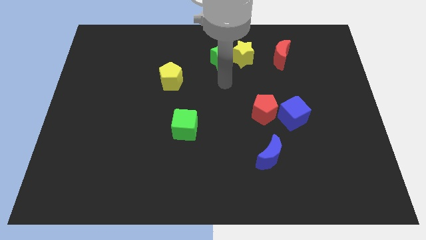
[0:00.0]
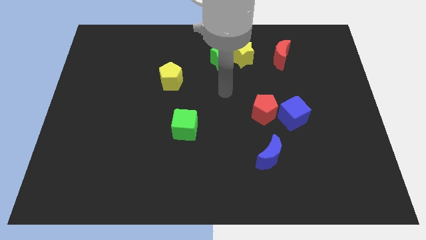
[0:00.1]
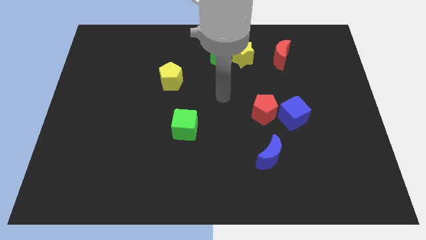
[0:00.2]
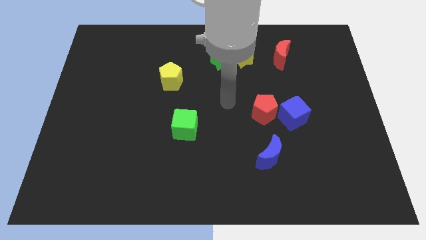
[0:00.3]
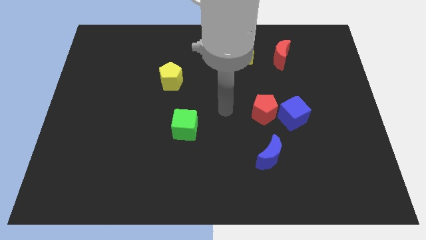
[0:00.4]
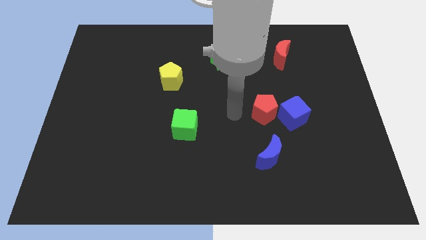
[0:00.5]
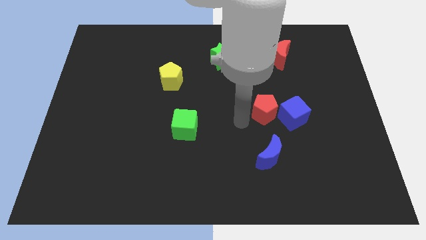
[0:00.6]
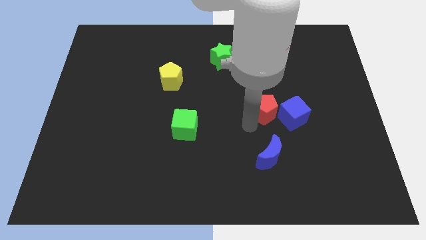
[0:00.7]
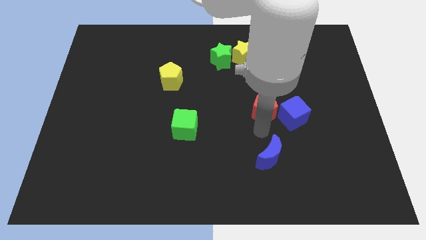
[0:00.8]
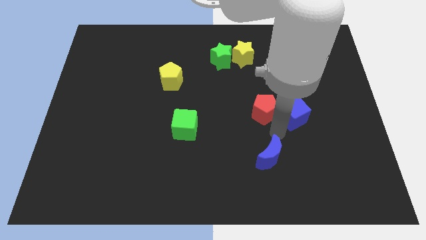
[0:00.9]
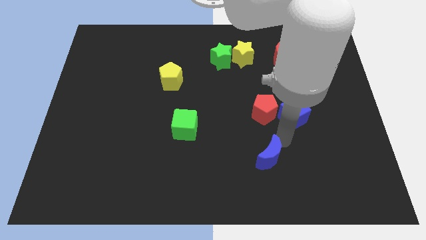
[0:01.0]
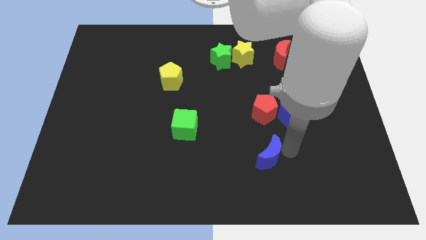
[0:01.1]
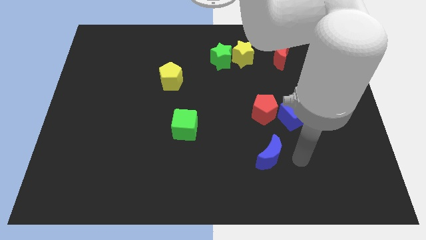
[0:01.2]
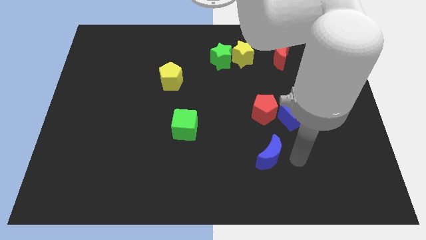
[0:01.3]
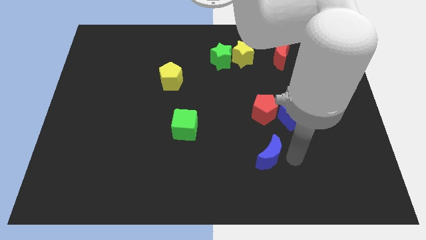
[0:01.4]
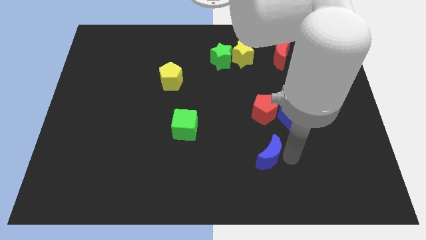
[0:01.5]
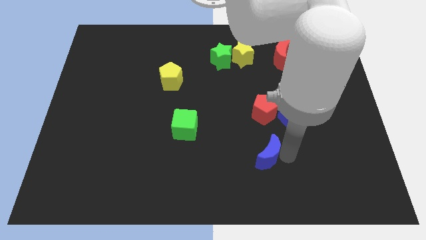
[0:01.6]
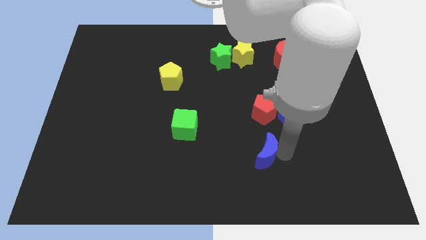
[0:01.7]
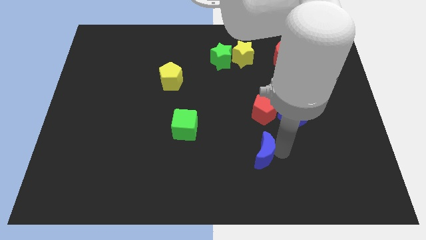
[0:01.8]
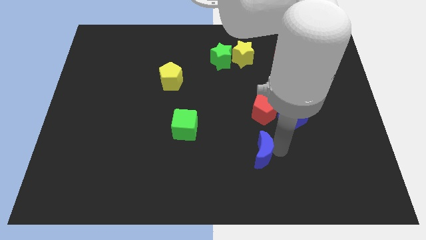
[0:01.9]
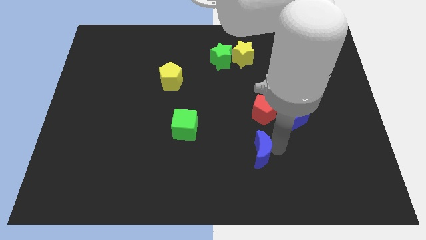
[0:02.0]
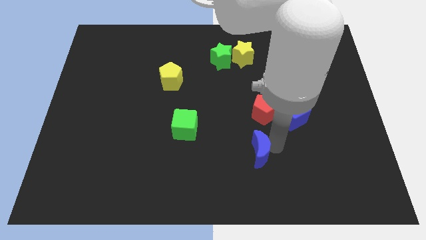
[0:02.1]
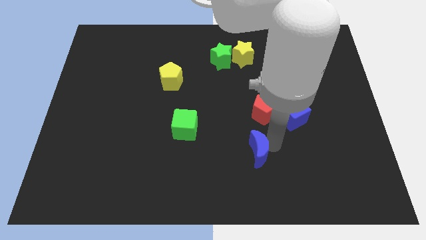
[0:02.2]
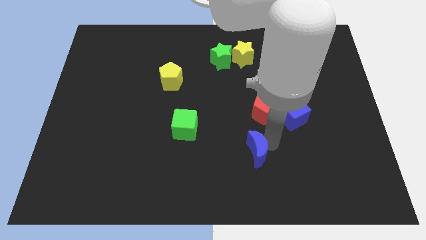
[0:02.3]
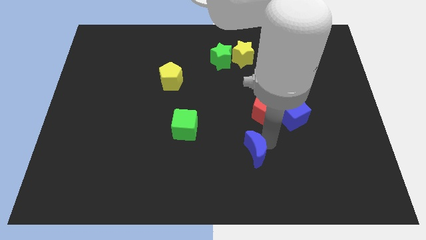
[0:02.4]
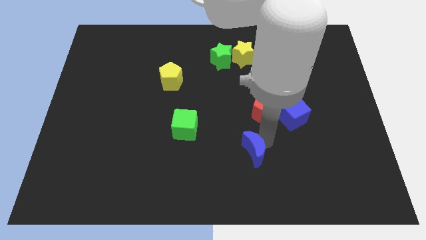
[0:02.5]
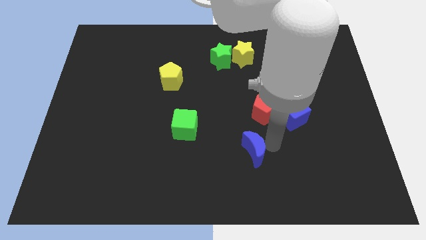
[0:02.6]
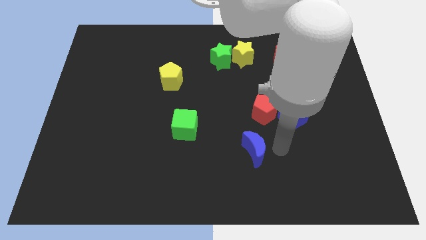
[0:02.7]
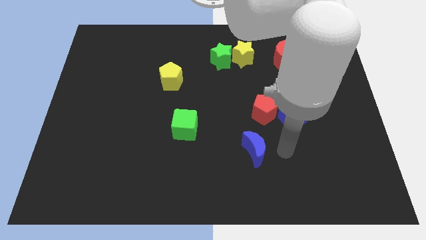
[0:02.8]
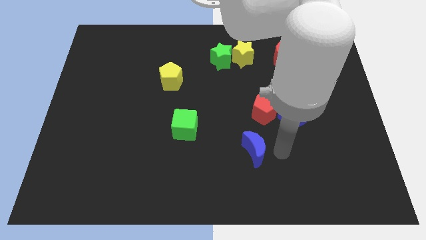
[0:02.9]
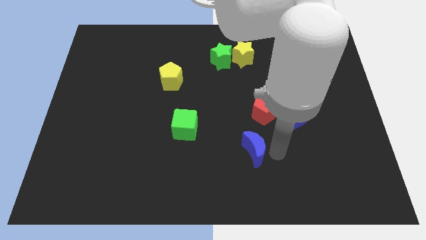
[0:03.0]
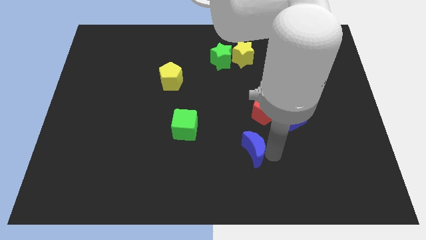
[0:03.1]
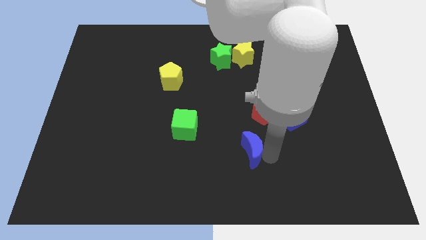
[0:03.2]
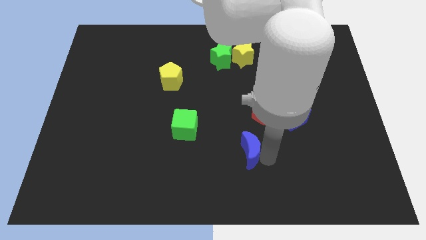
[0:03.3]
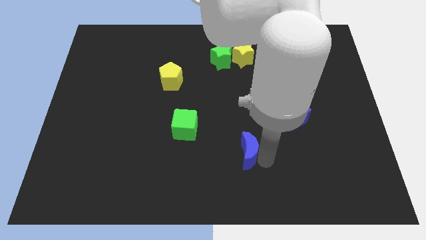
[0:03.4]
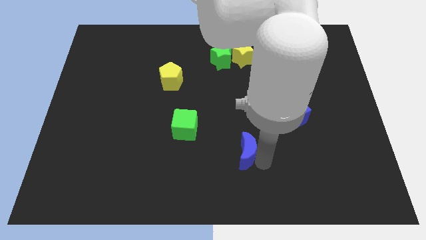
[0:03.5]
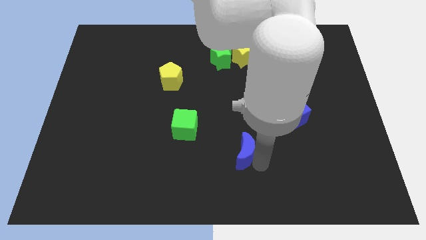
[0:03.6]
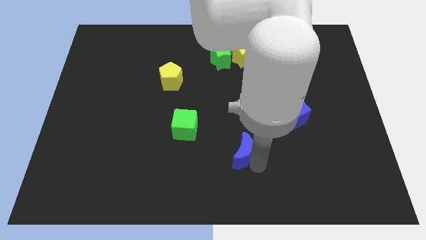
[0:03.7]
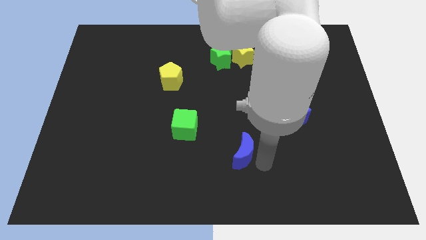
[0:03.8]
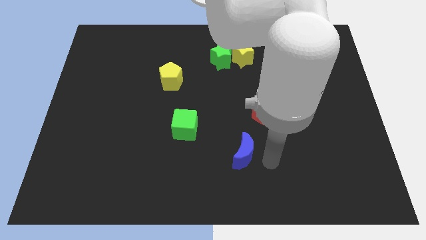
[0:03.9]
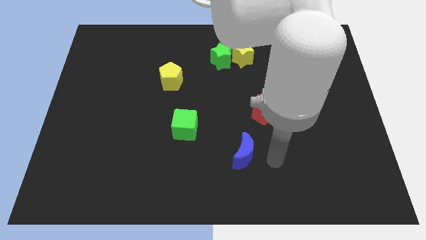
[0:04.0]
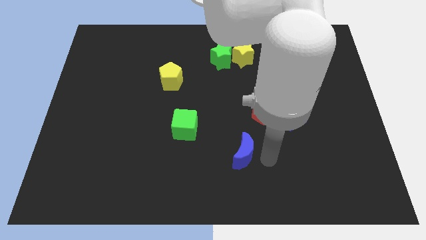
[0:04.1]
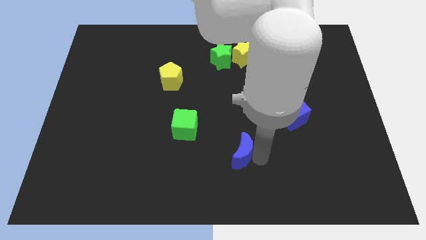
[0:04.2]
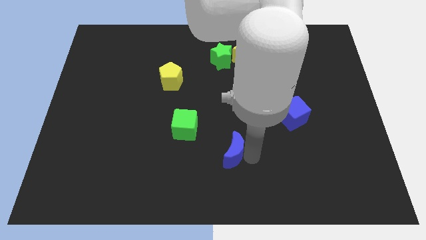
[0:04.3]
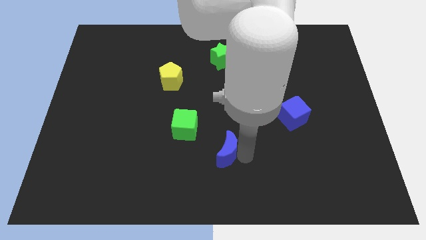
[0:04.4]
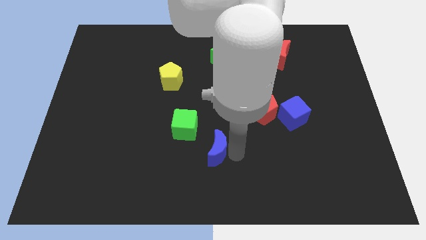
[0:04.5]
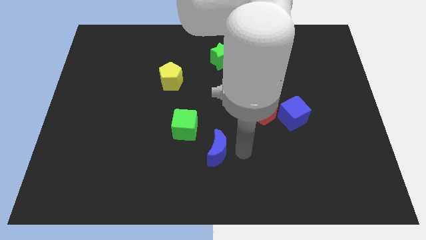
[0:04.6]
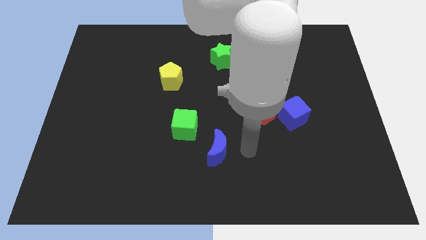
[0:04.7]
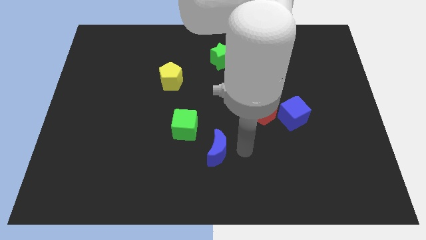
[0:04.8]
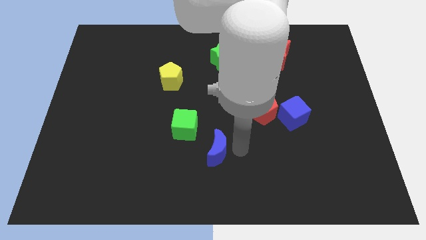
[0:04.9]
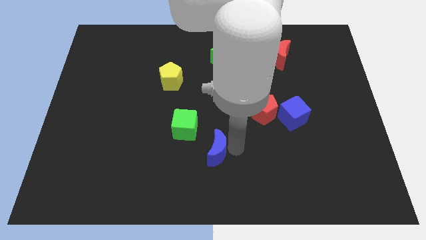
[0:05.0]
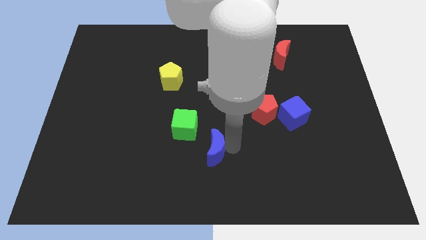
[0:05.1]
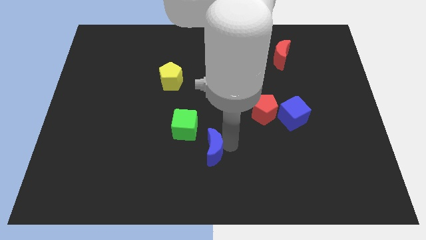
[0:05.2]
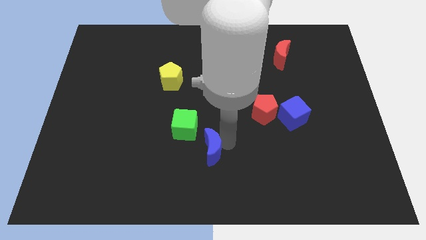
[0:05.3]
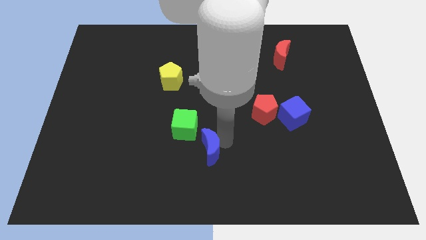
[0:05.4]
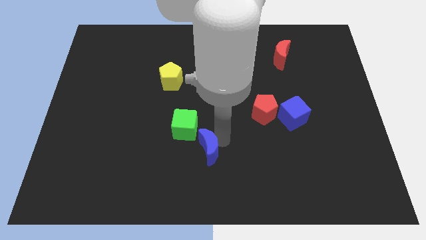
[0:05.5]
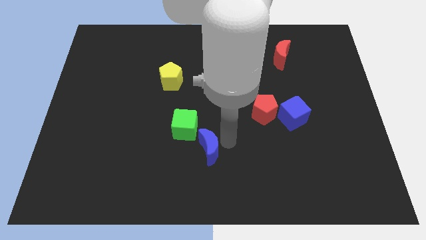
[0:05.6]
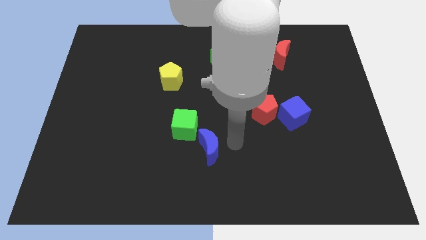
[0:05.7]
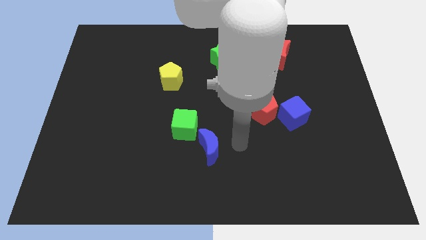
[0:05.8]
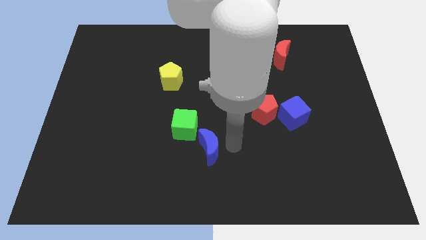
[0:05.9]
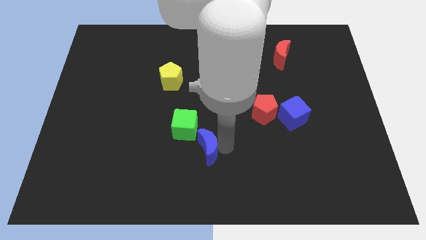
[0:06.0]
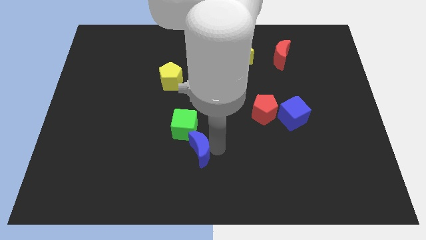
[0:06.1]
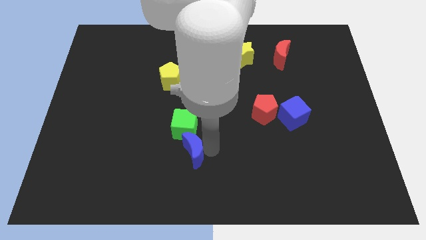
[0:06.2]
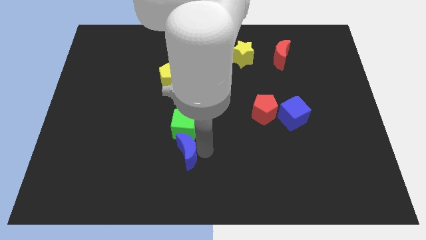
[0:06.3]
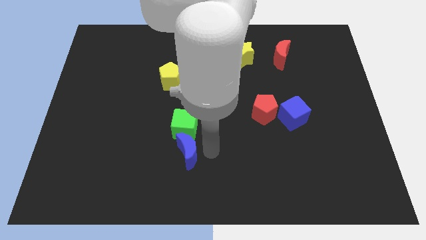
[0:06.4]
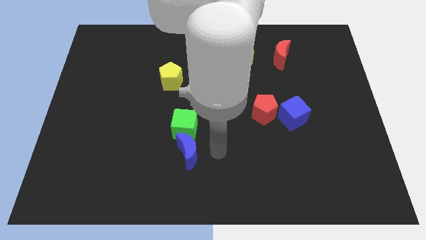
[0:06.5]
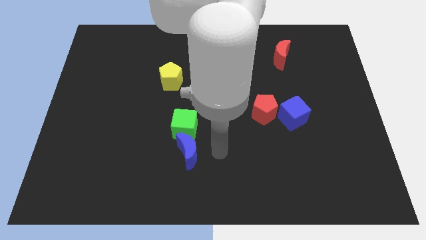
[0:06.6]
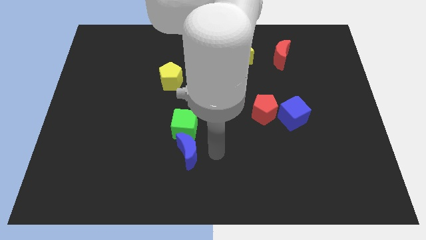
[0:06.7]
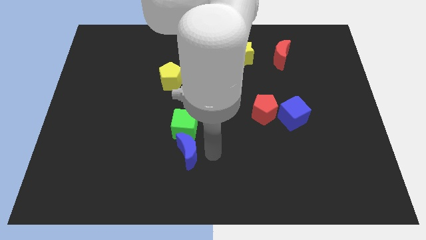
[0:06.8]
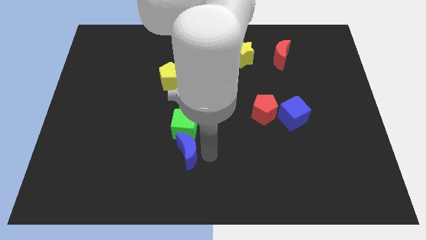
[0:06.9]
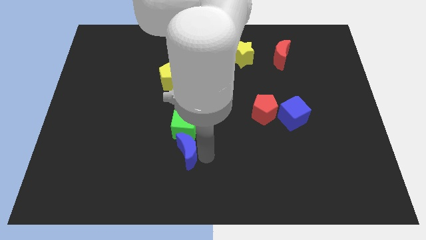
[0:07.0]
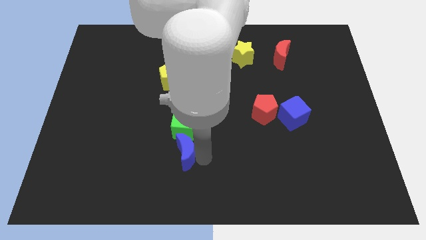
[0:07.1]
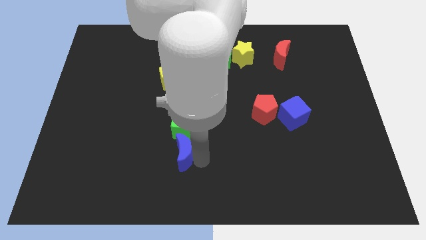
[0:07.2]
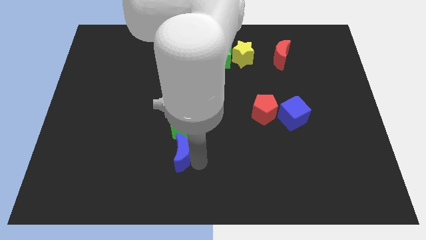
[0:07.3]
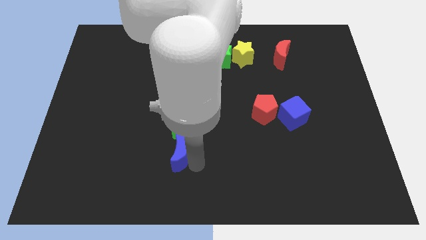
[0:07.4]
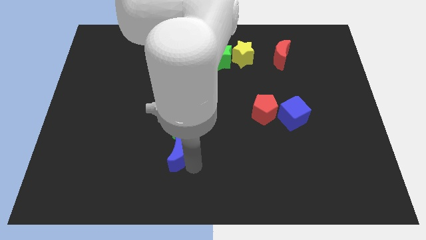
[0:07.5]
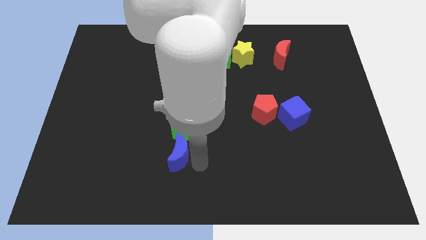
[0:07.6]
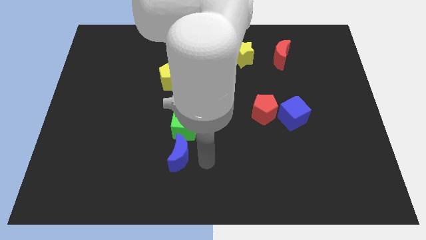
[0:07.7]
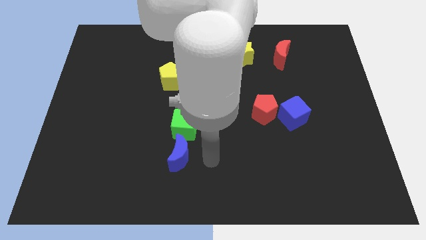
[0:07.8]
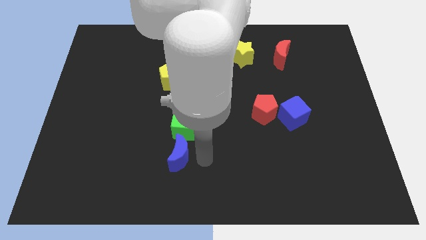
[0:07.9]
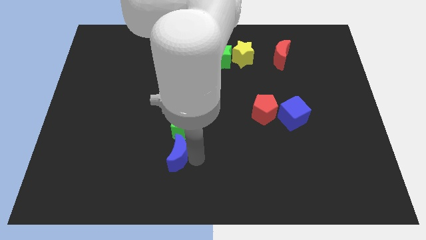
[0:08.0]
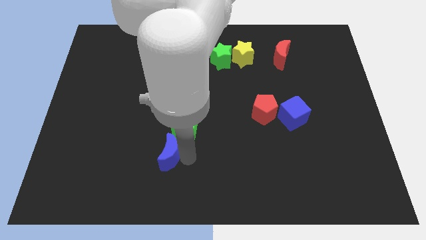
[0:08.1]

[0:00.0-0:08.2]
slide the blue moon left

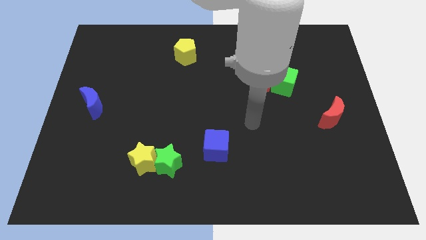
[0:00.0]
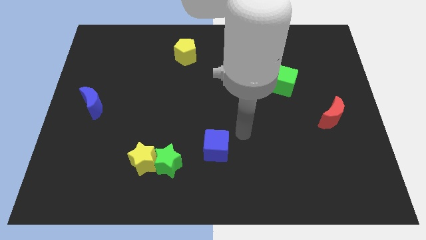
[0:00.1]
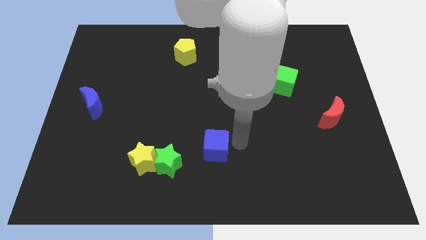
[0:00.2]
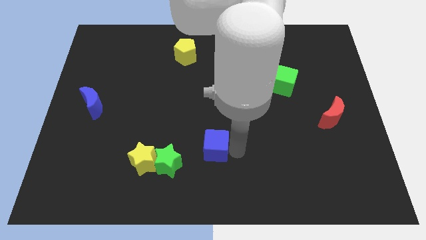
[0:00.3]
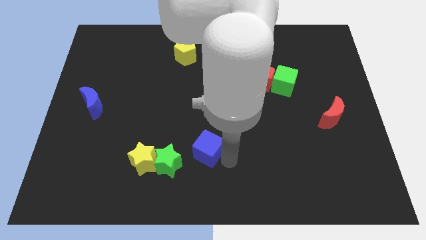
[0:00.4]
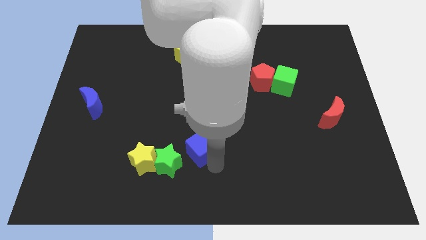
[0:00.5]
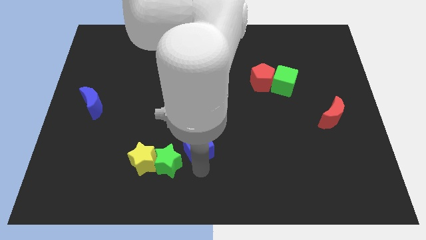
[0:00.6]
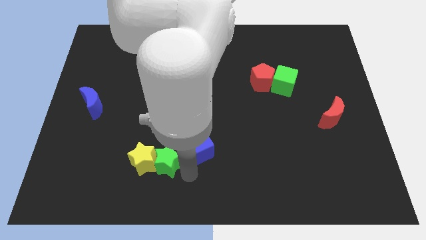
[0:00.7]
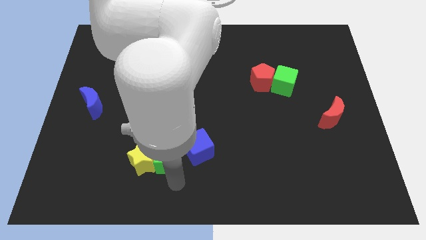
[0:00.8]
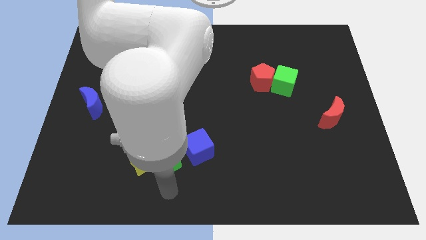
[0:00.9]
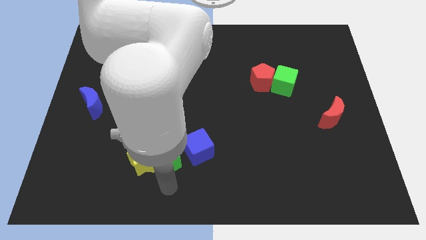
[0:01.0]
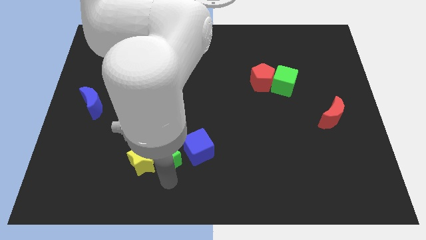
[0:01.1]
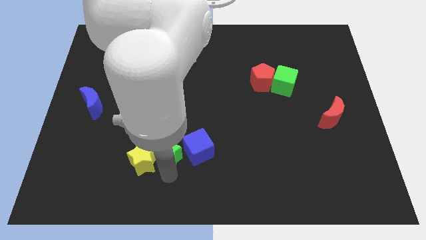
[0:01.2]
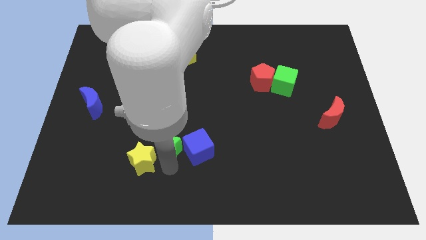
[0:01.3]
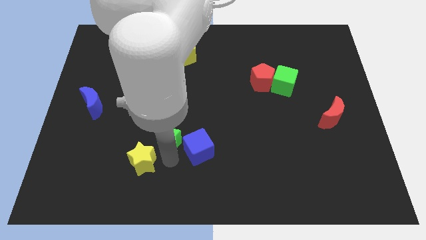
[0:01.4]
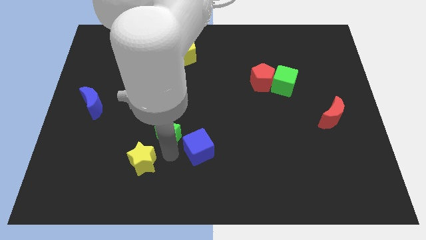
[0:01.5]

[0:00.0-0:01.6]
push the green star somewhat up
